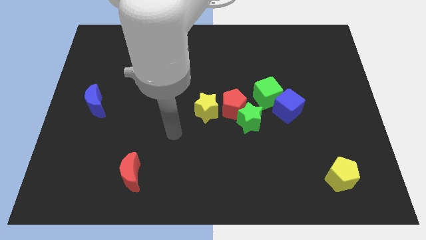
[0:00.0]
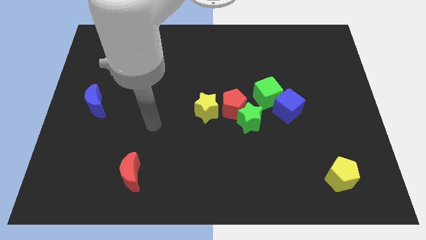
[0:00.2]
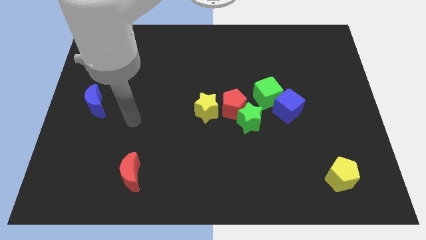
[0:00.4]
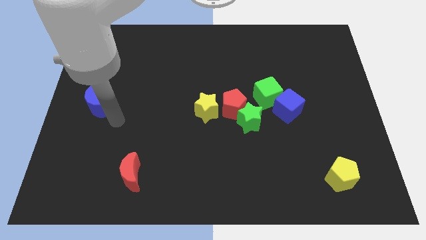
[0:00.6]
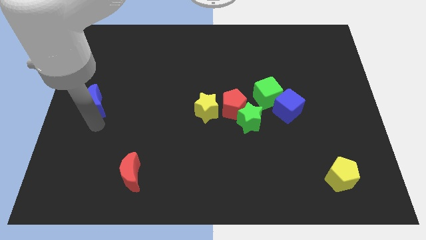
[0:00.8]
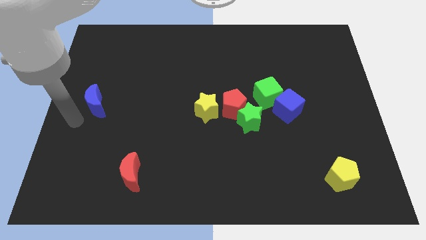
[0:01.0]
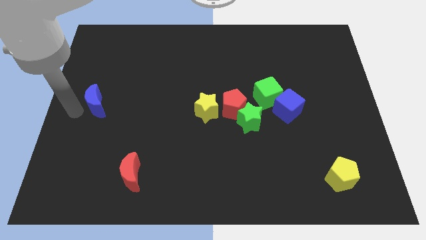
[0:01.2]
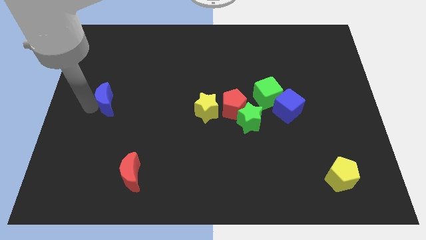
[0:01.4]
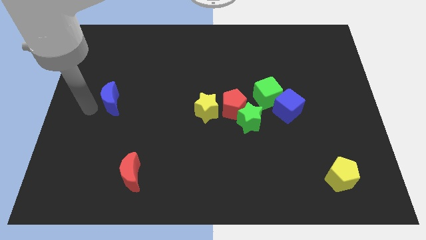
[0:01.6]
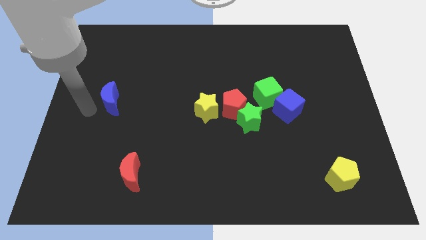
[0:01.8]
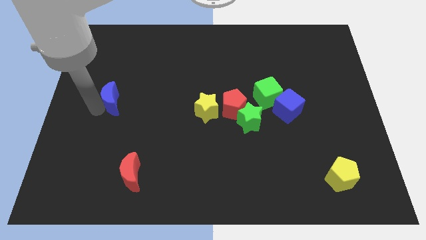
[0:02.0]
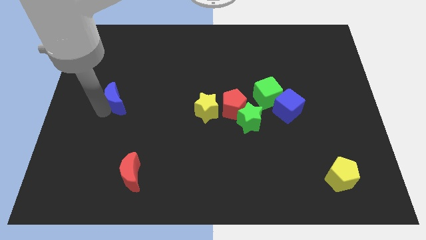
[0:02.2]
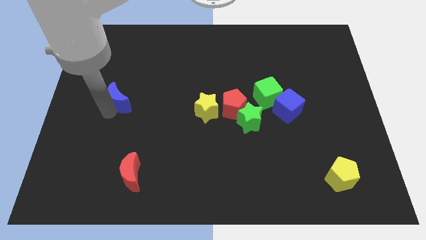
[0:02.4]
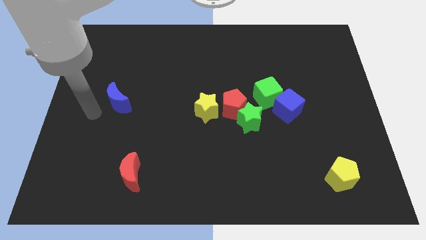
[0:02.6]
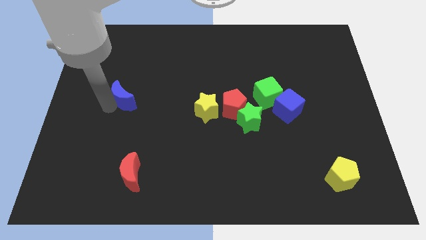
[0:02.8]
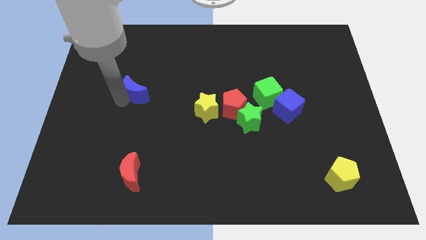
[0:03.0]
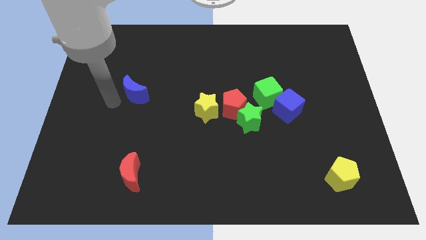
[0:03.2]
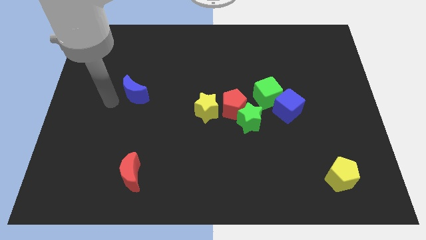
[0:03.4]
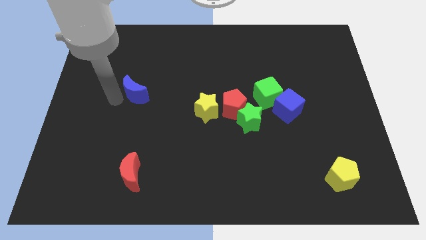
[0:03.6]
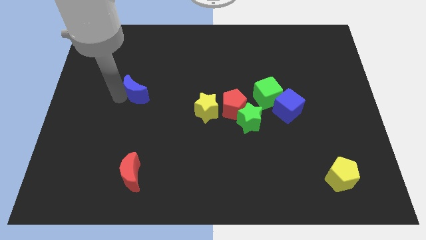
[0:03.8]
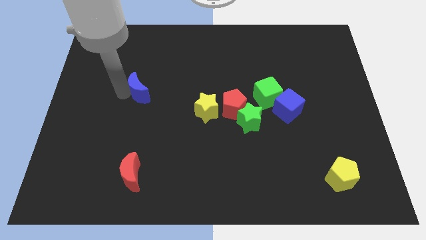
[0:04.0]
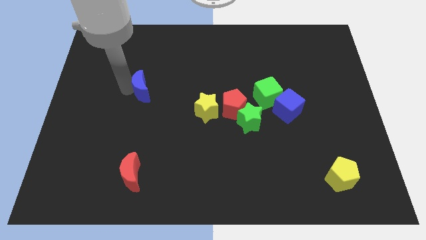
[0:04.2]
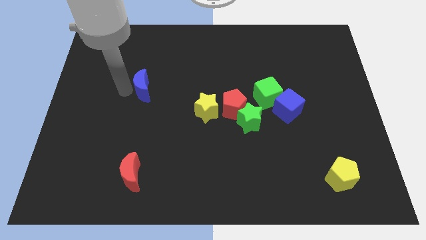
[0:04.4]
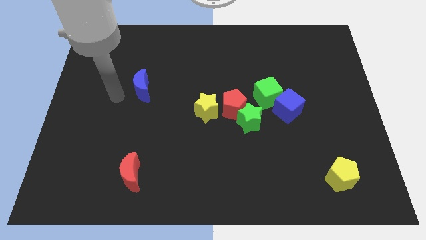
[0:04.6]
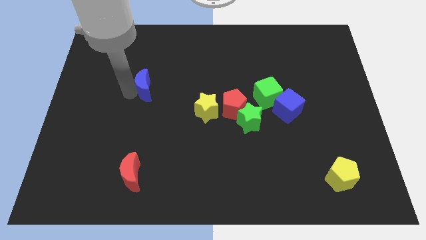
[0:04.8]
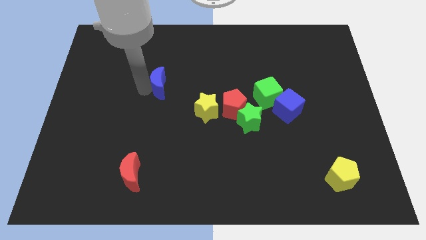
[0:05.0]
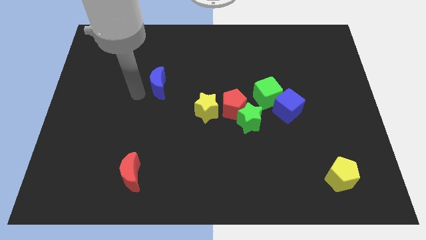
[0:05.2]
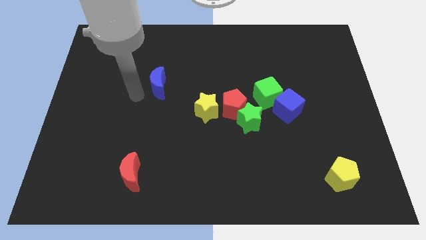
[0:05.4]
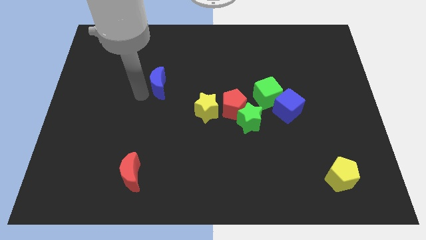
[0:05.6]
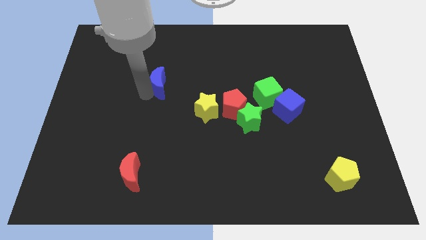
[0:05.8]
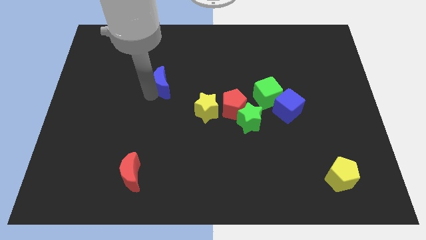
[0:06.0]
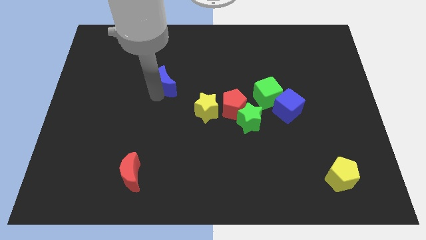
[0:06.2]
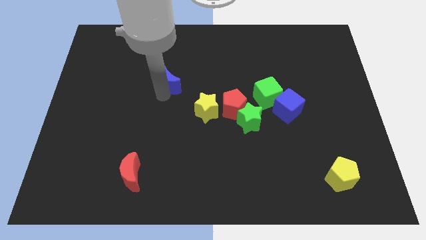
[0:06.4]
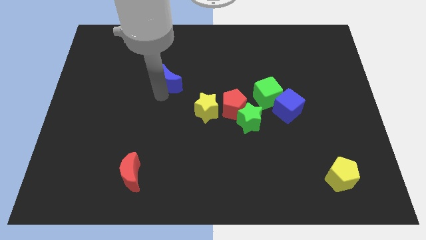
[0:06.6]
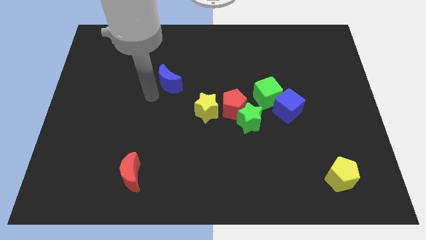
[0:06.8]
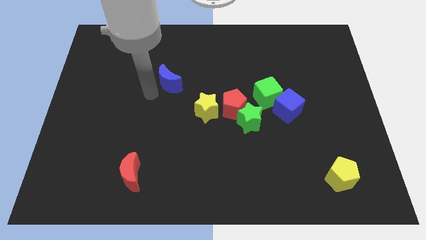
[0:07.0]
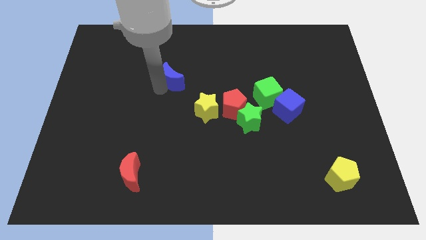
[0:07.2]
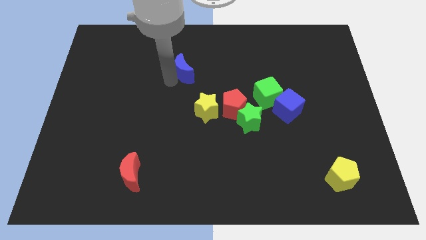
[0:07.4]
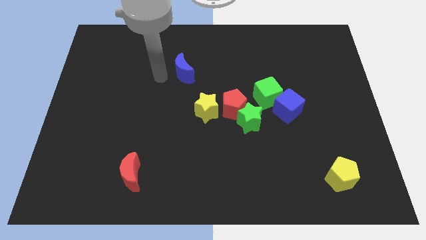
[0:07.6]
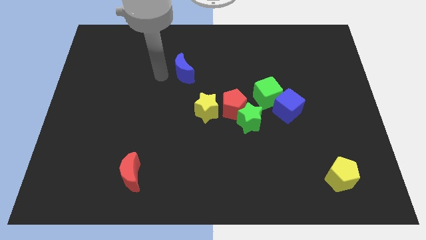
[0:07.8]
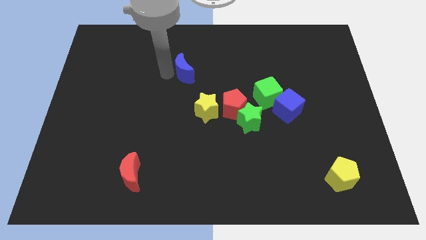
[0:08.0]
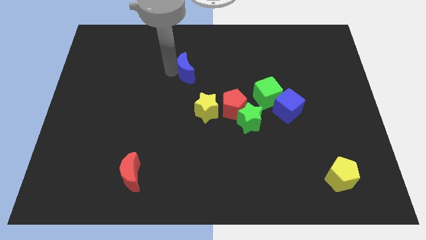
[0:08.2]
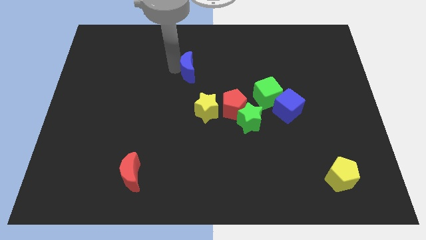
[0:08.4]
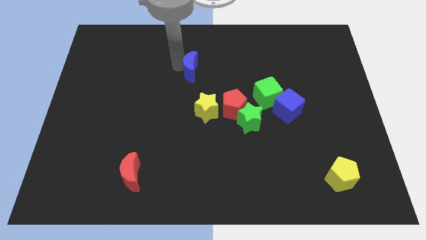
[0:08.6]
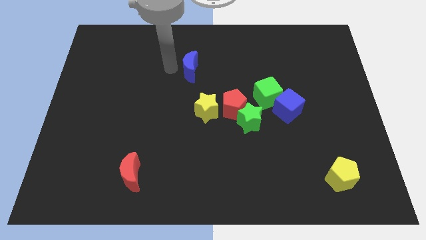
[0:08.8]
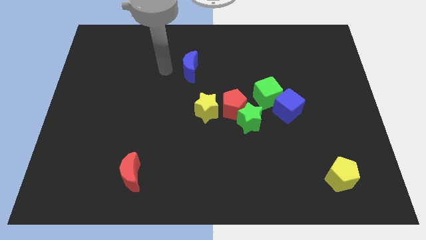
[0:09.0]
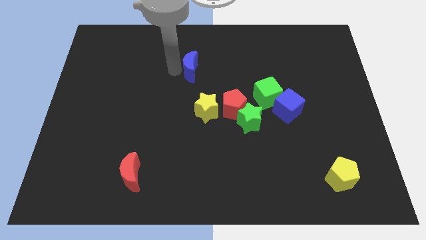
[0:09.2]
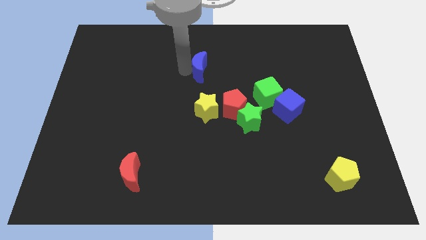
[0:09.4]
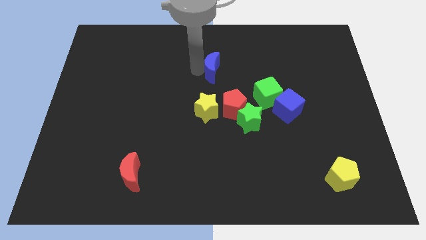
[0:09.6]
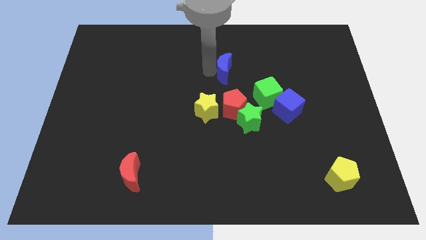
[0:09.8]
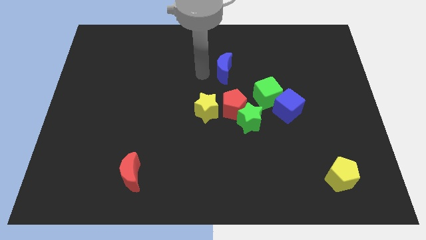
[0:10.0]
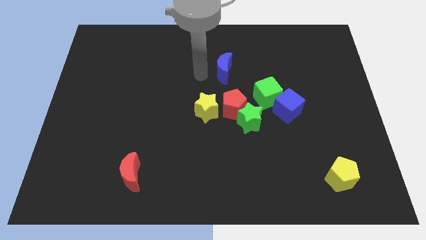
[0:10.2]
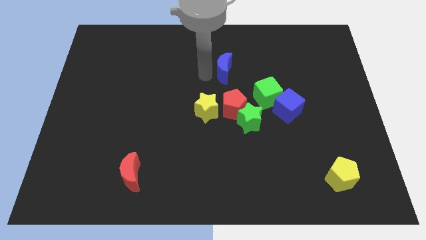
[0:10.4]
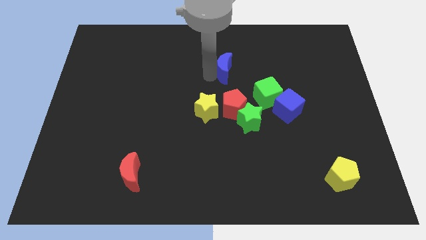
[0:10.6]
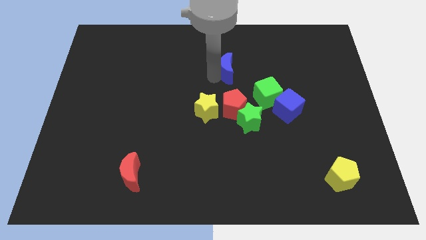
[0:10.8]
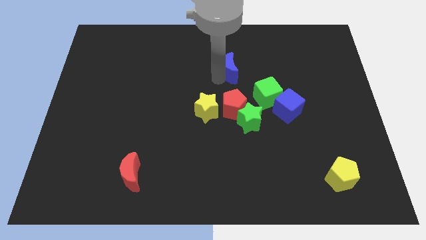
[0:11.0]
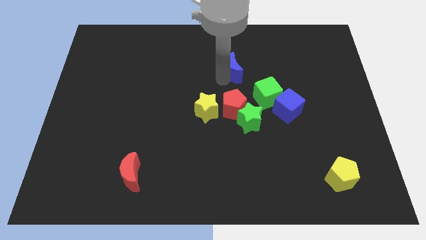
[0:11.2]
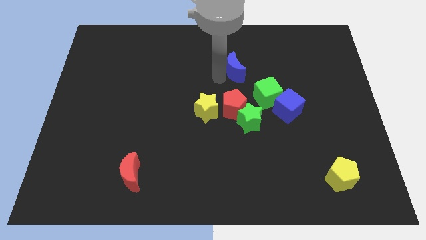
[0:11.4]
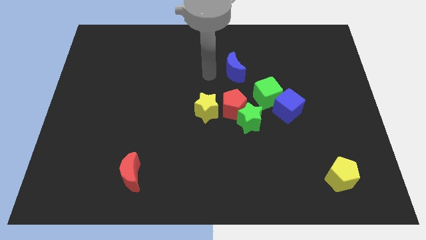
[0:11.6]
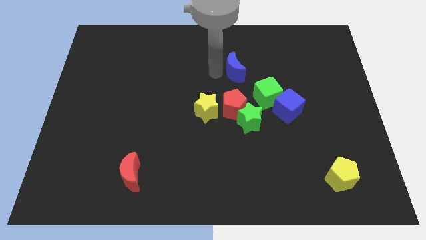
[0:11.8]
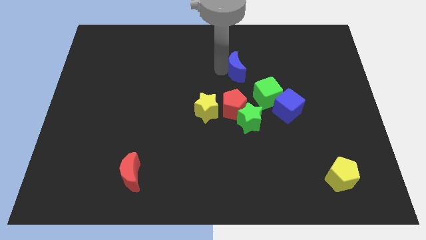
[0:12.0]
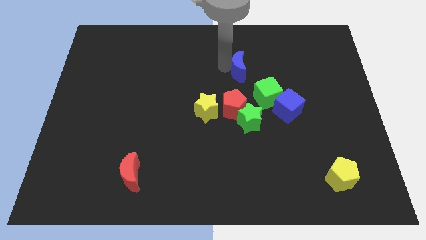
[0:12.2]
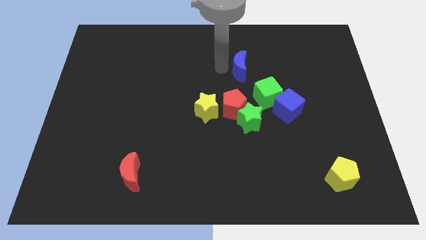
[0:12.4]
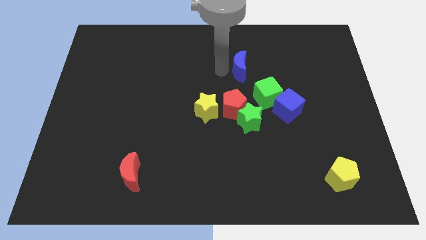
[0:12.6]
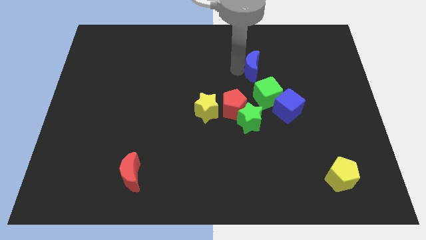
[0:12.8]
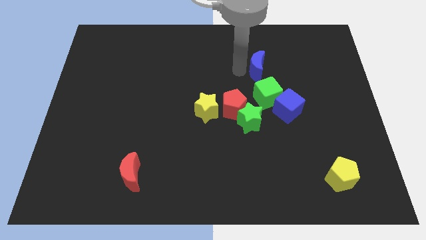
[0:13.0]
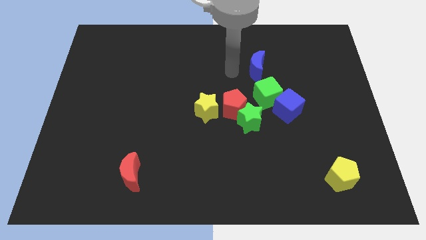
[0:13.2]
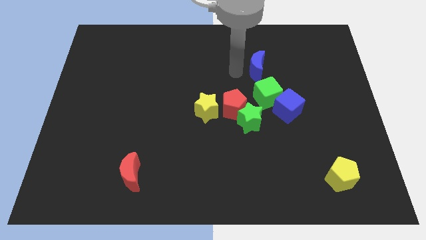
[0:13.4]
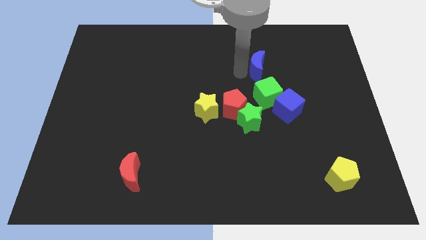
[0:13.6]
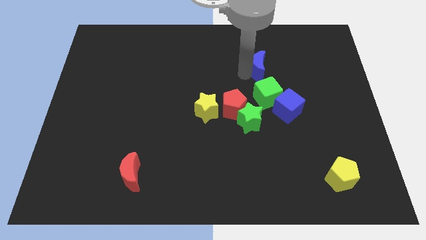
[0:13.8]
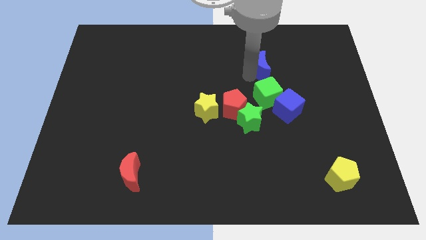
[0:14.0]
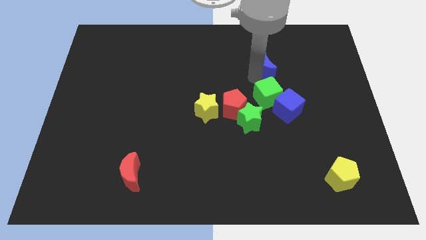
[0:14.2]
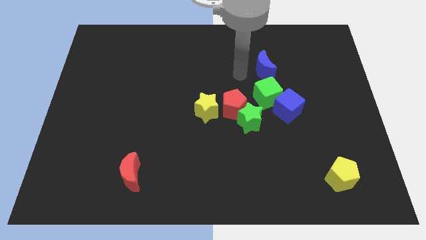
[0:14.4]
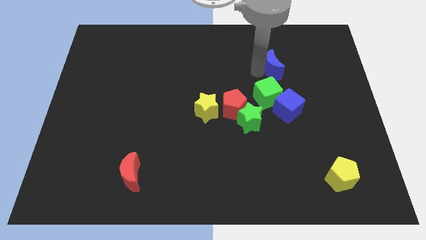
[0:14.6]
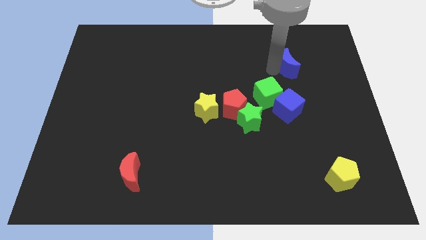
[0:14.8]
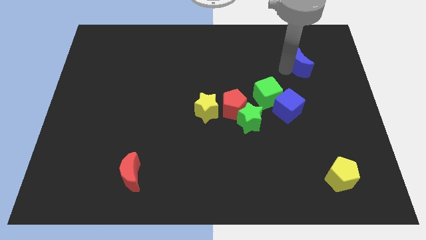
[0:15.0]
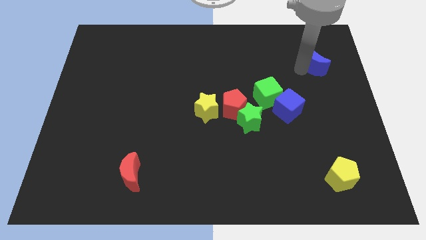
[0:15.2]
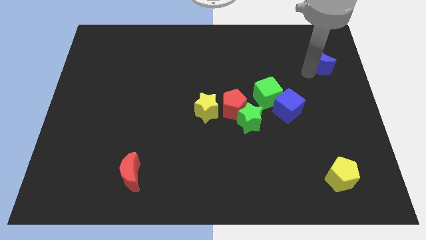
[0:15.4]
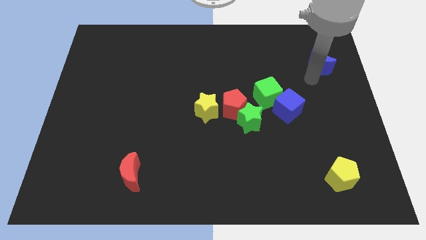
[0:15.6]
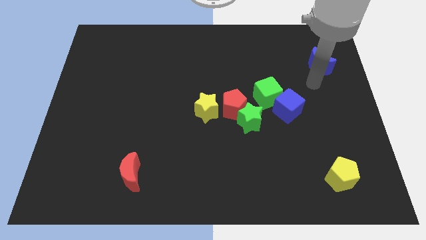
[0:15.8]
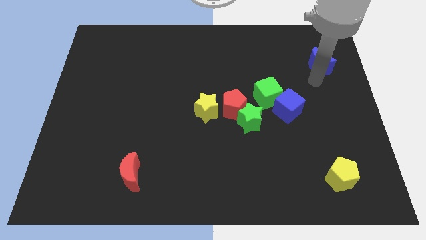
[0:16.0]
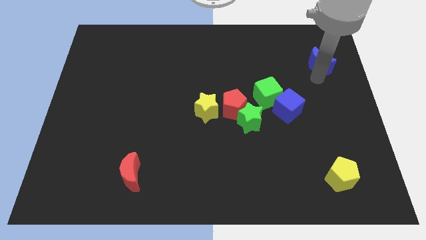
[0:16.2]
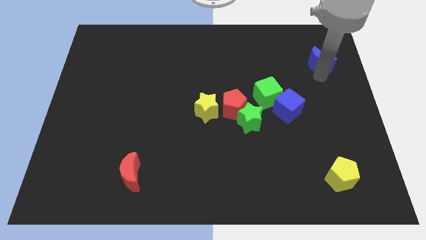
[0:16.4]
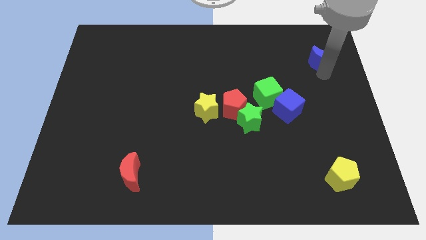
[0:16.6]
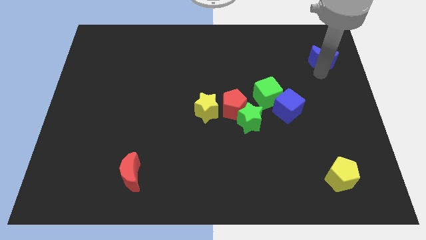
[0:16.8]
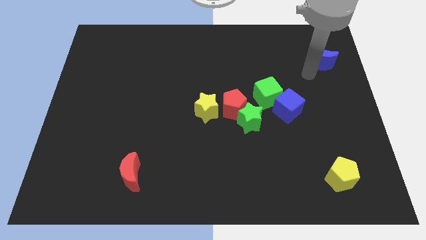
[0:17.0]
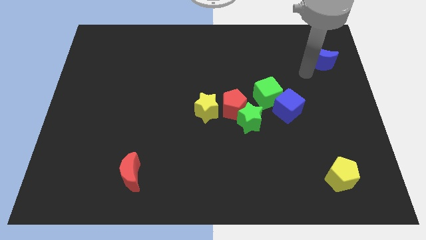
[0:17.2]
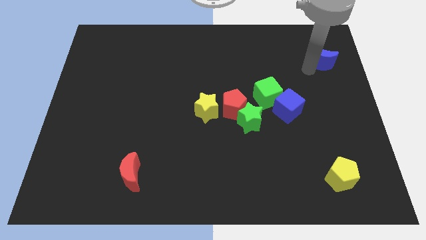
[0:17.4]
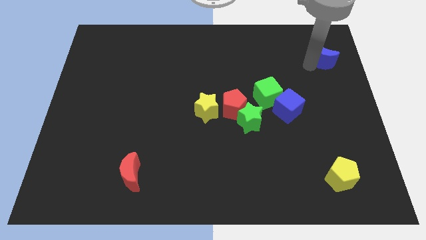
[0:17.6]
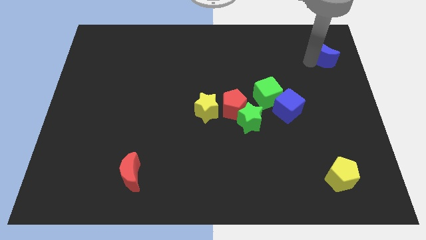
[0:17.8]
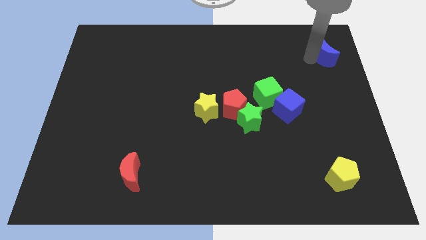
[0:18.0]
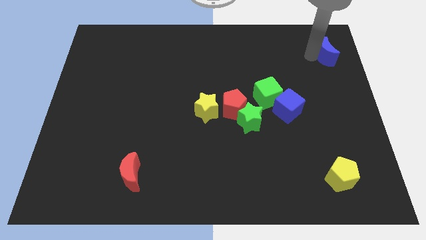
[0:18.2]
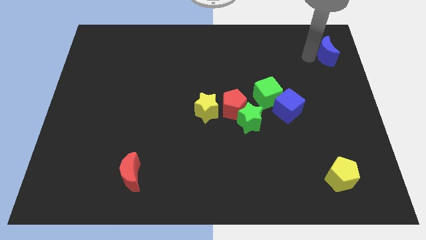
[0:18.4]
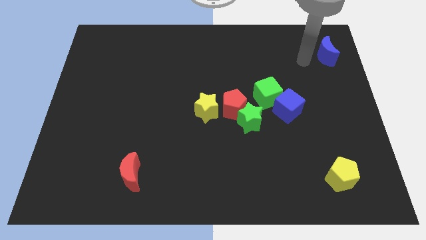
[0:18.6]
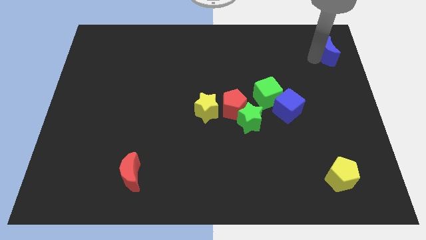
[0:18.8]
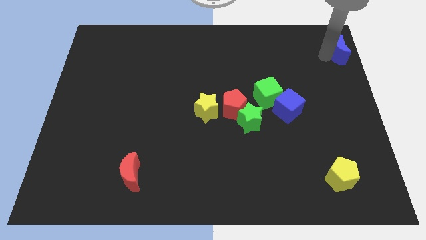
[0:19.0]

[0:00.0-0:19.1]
put the blue moon to the top right
